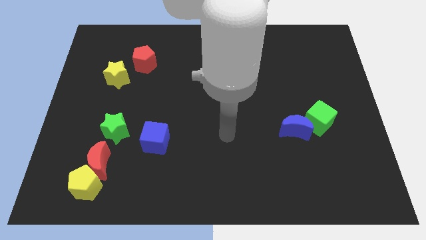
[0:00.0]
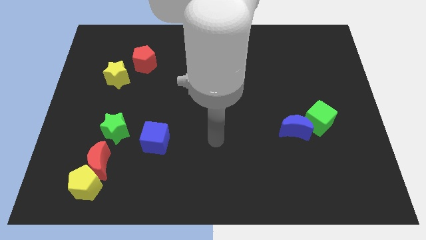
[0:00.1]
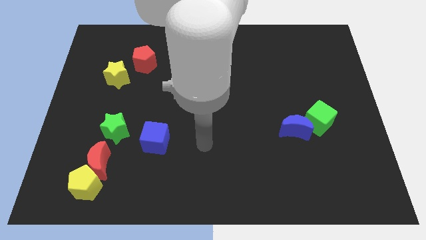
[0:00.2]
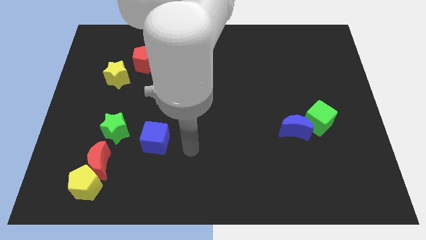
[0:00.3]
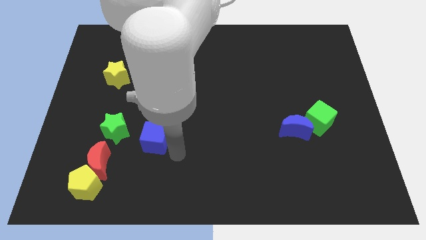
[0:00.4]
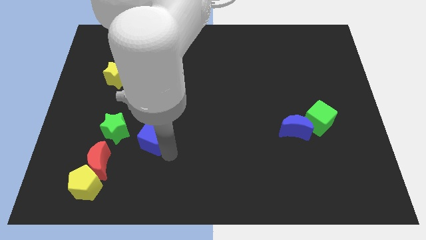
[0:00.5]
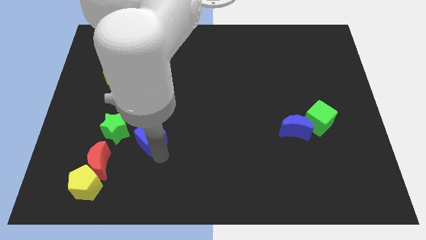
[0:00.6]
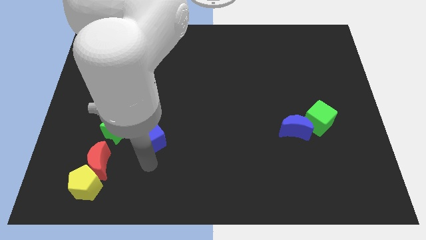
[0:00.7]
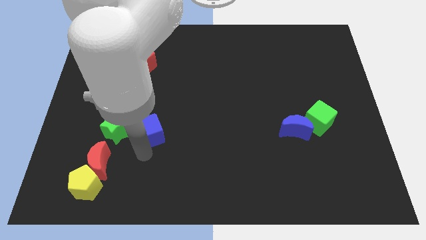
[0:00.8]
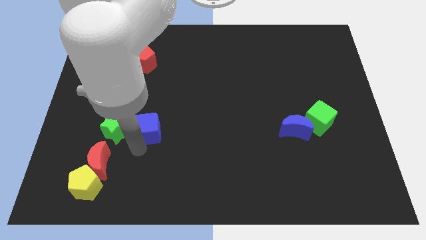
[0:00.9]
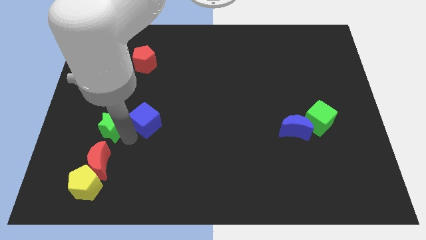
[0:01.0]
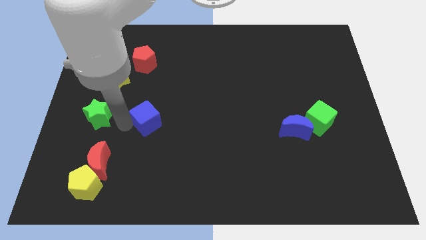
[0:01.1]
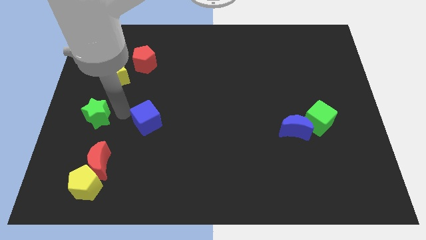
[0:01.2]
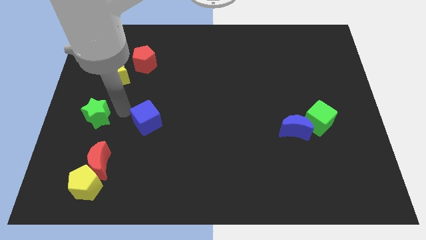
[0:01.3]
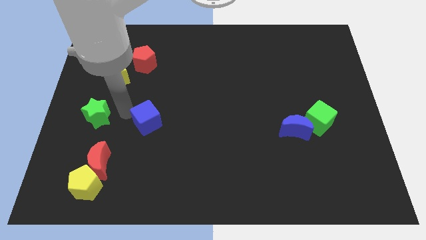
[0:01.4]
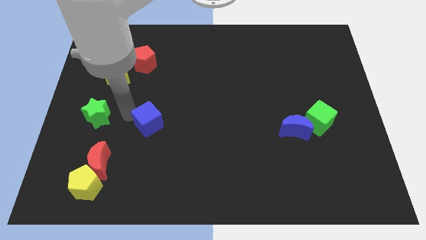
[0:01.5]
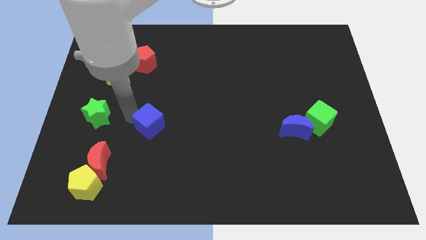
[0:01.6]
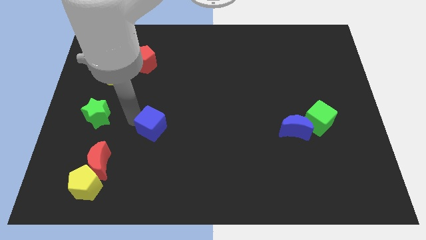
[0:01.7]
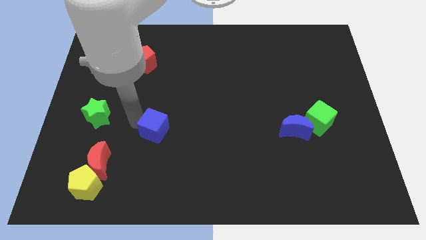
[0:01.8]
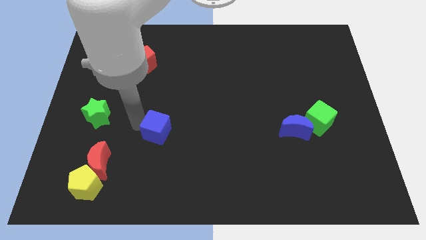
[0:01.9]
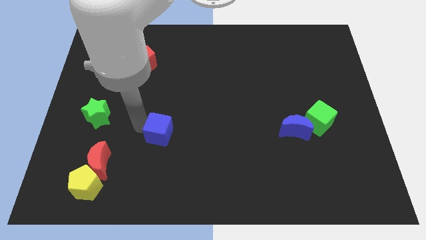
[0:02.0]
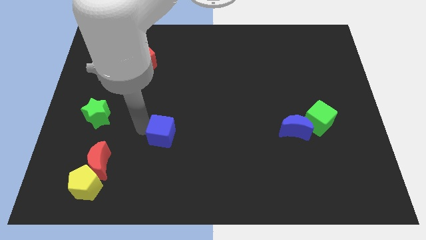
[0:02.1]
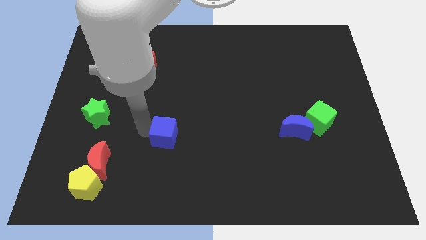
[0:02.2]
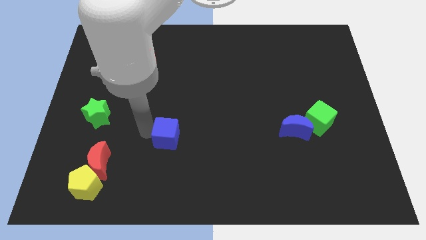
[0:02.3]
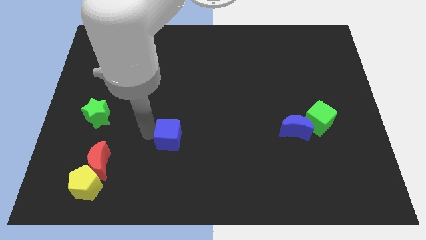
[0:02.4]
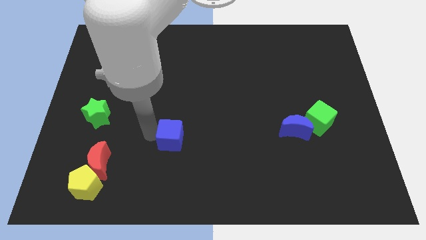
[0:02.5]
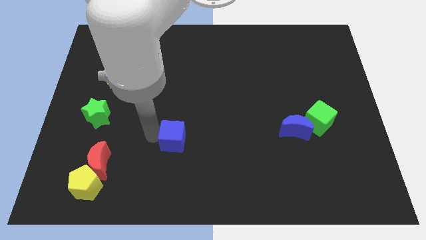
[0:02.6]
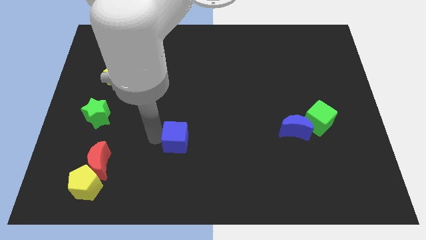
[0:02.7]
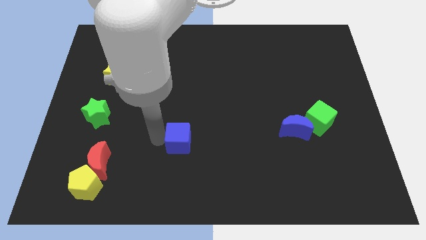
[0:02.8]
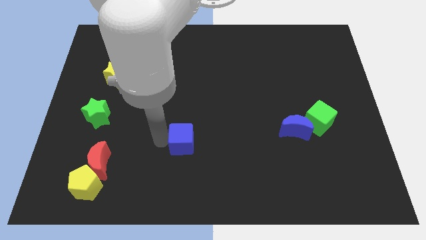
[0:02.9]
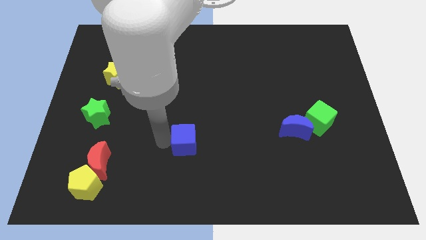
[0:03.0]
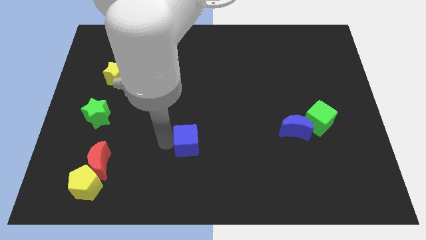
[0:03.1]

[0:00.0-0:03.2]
push the blue cube slightly right

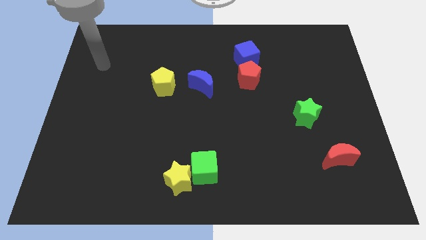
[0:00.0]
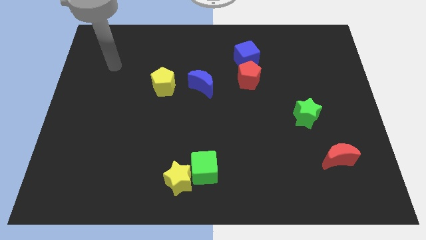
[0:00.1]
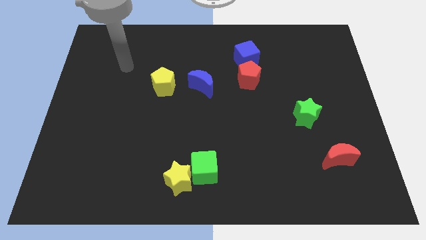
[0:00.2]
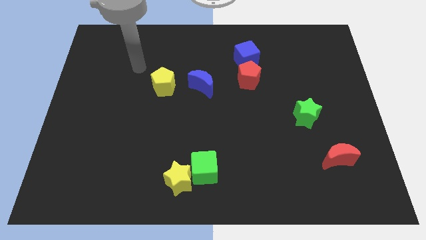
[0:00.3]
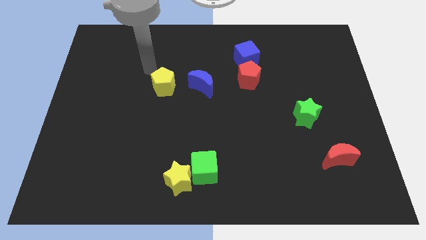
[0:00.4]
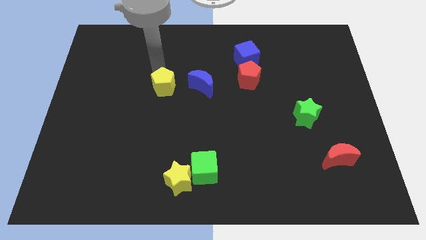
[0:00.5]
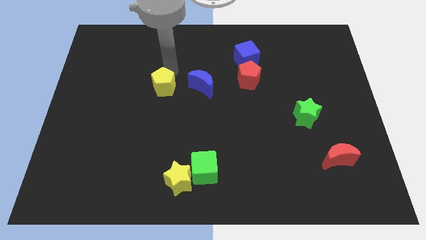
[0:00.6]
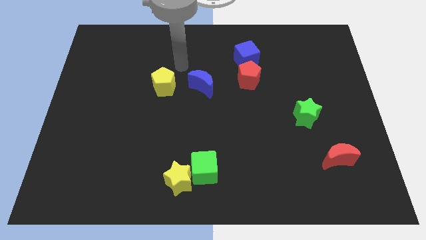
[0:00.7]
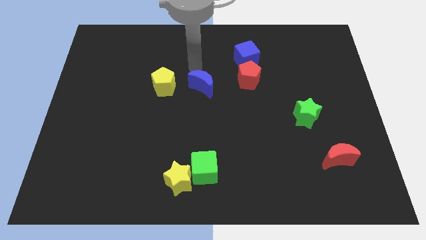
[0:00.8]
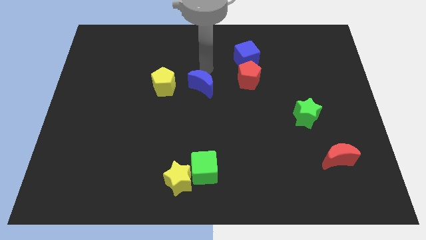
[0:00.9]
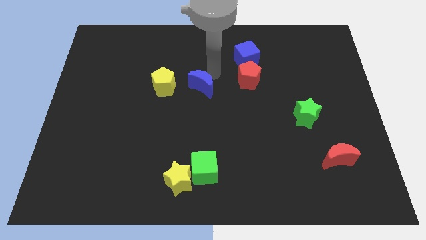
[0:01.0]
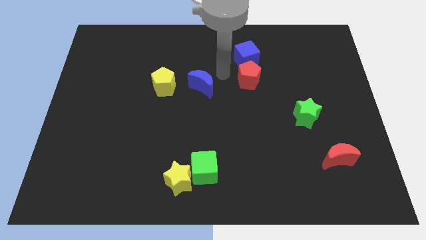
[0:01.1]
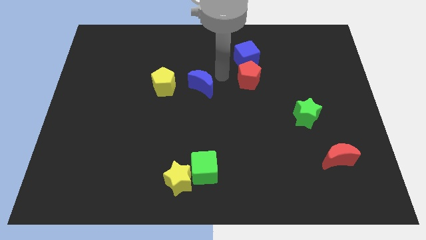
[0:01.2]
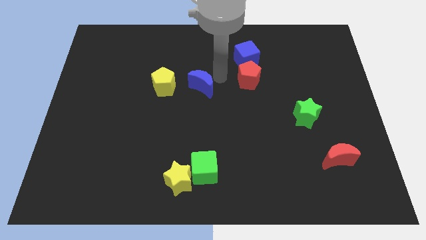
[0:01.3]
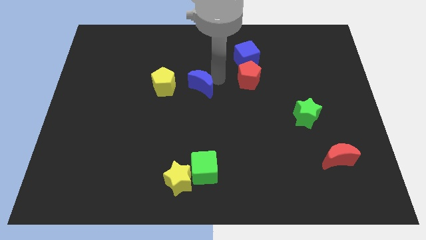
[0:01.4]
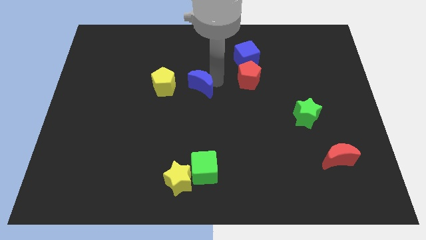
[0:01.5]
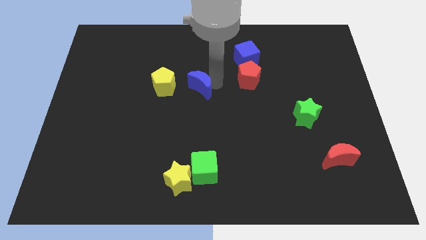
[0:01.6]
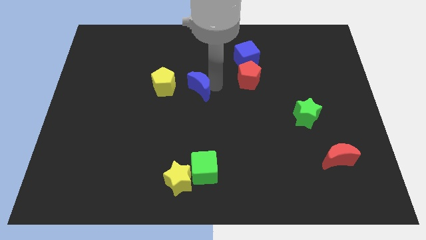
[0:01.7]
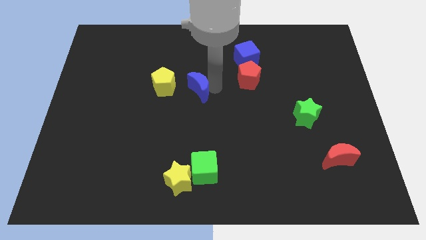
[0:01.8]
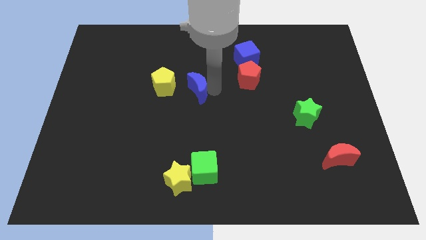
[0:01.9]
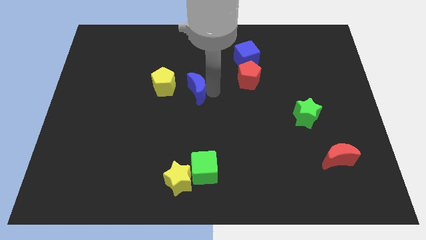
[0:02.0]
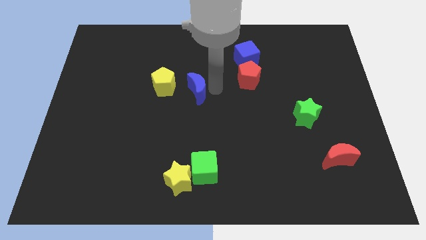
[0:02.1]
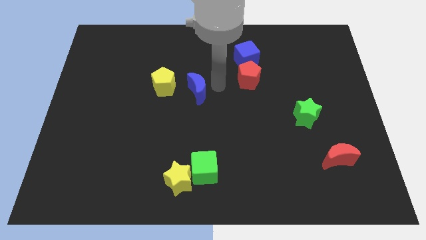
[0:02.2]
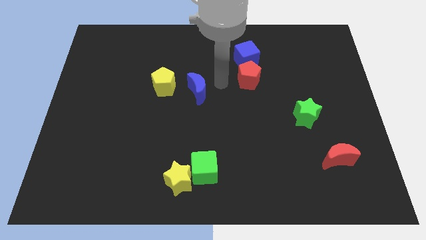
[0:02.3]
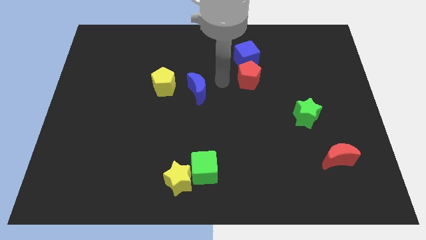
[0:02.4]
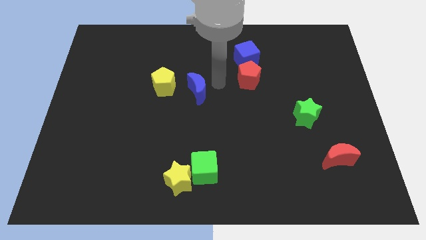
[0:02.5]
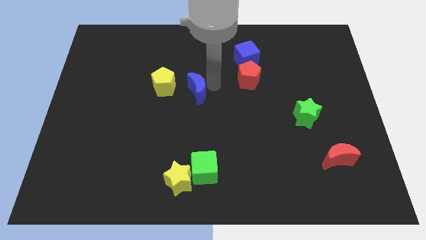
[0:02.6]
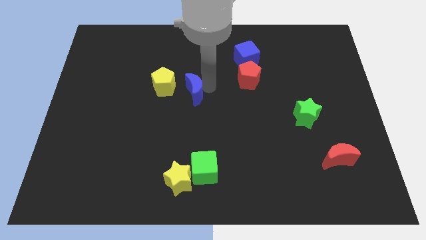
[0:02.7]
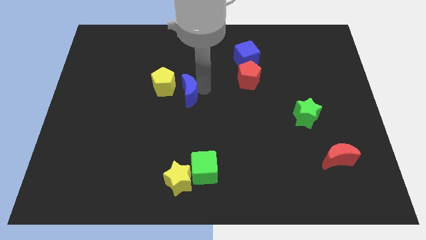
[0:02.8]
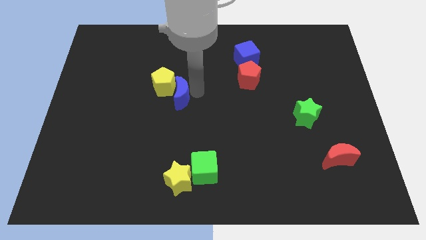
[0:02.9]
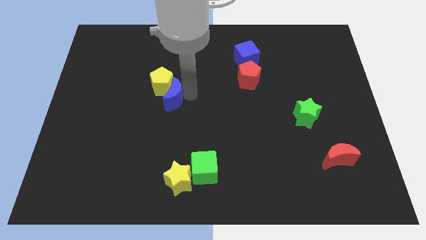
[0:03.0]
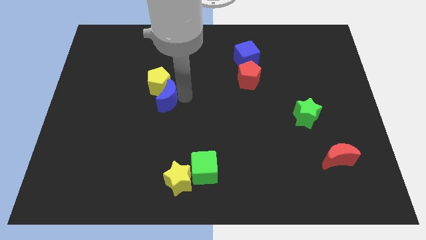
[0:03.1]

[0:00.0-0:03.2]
move the blue moon left a little

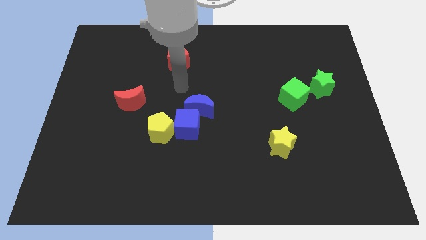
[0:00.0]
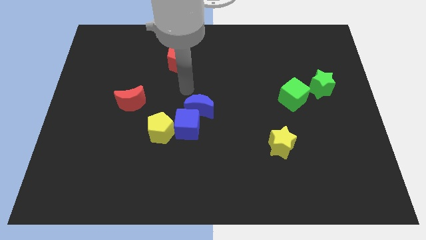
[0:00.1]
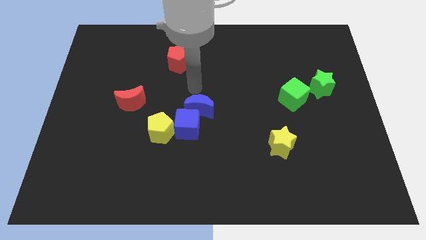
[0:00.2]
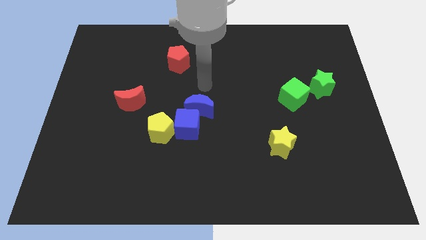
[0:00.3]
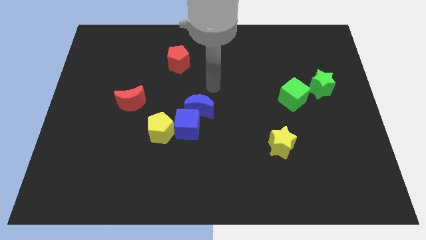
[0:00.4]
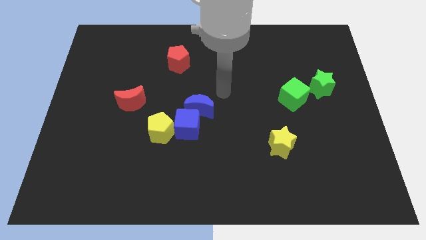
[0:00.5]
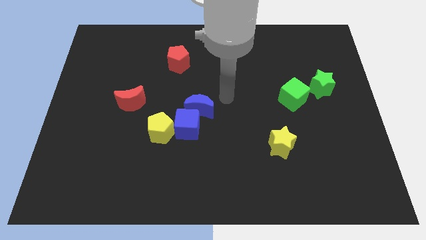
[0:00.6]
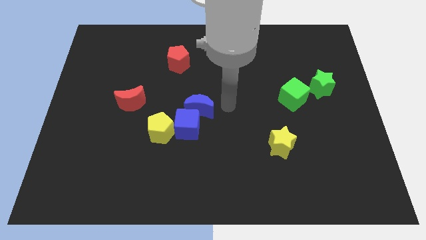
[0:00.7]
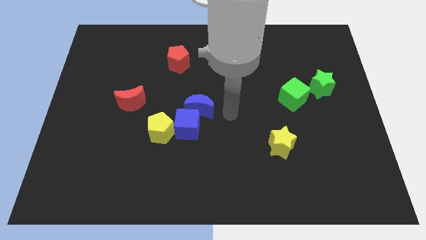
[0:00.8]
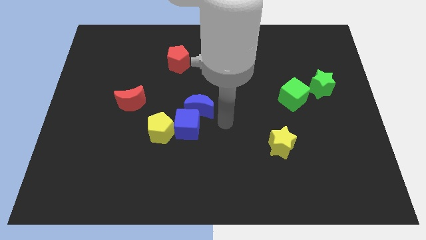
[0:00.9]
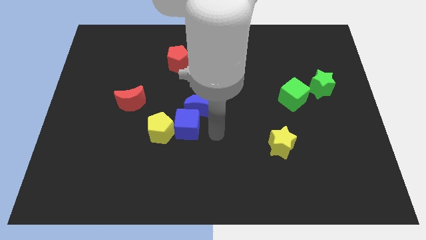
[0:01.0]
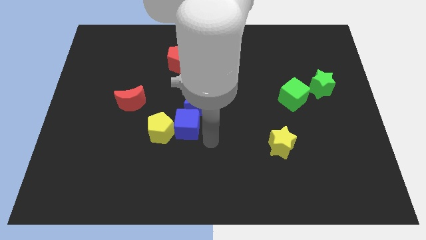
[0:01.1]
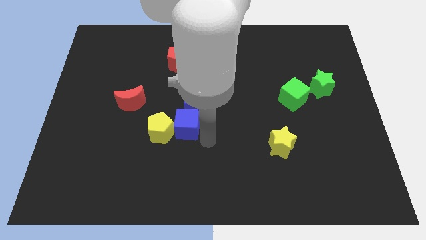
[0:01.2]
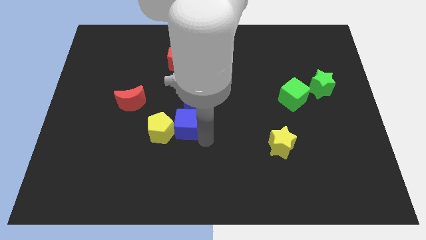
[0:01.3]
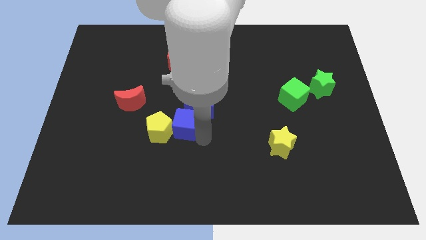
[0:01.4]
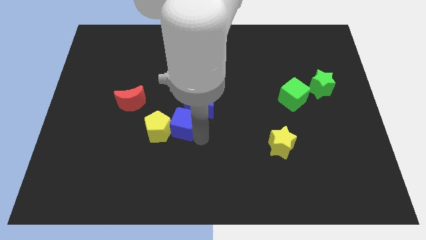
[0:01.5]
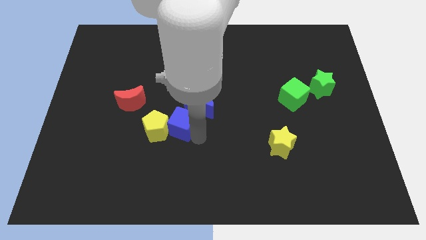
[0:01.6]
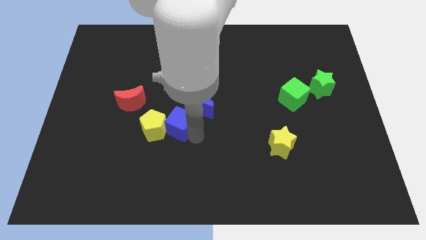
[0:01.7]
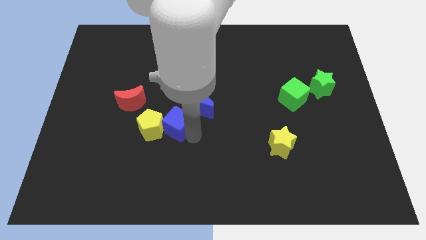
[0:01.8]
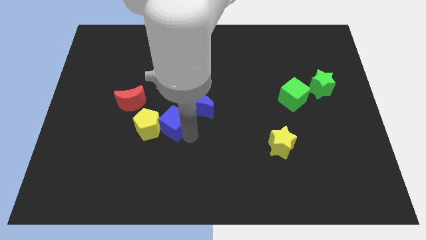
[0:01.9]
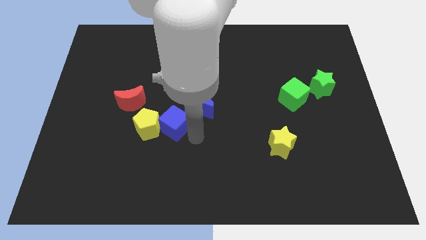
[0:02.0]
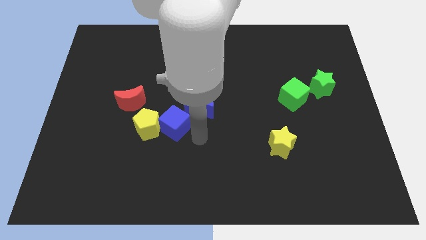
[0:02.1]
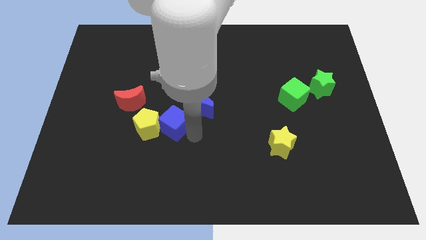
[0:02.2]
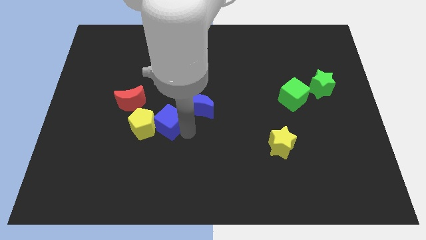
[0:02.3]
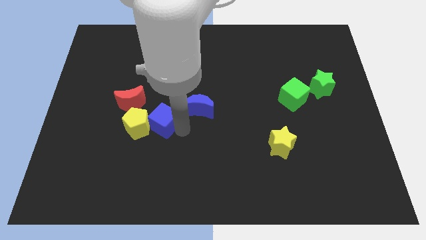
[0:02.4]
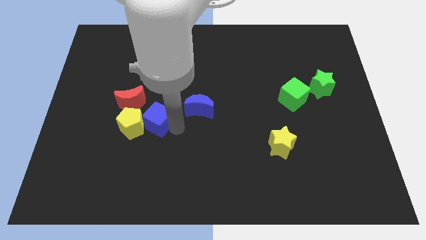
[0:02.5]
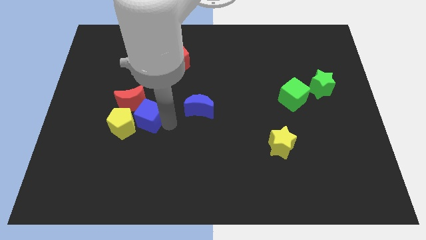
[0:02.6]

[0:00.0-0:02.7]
slightly move the blue cube left
